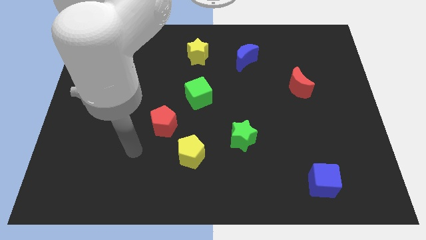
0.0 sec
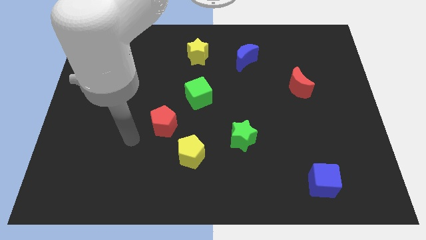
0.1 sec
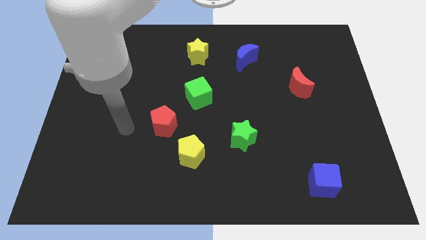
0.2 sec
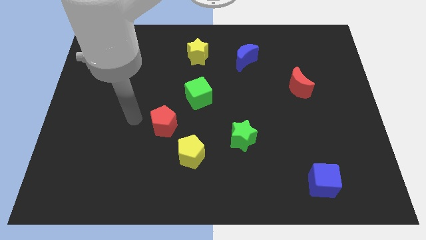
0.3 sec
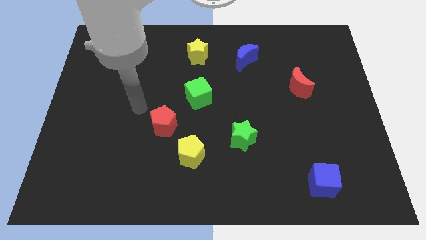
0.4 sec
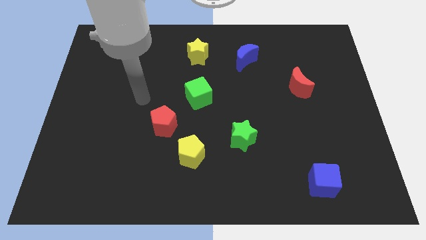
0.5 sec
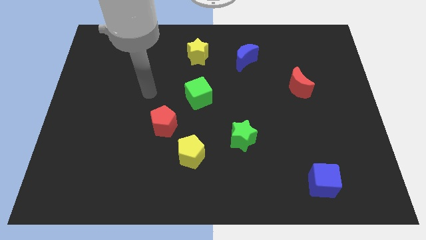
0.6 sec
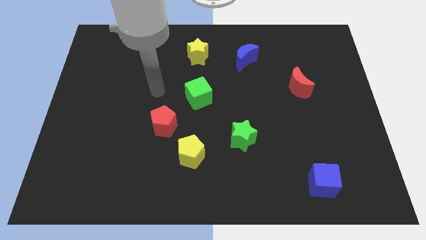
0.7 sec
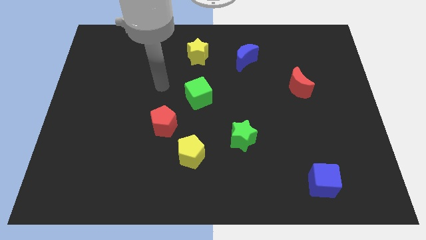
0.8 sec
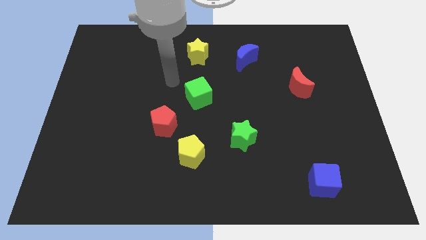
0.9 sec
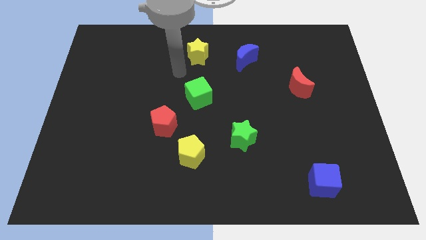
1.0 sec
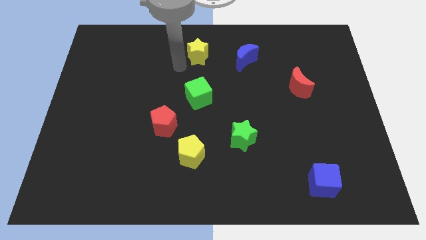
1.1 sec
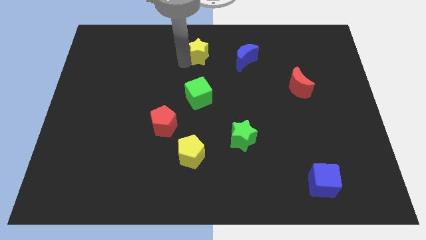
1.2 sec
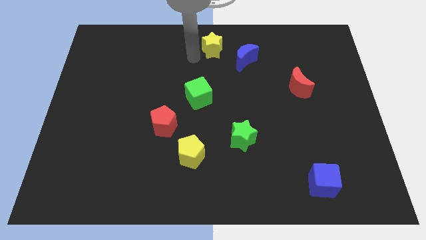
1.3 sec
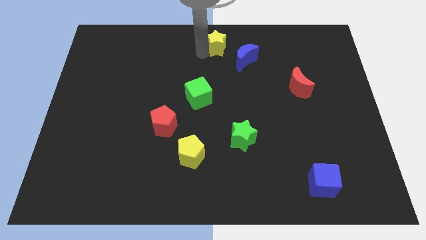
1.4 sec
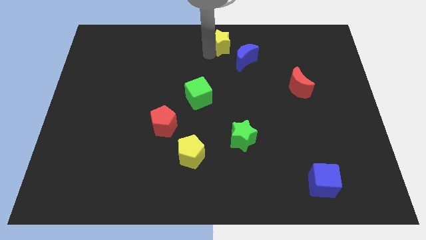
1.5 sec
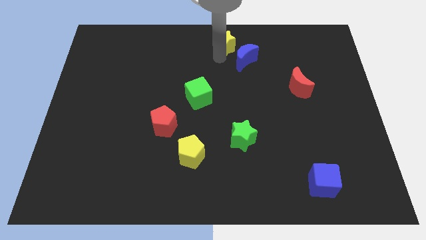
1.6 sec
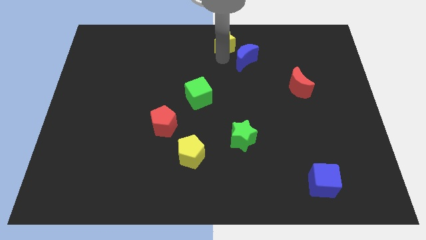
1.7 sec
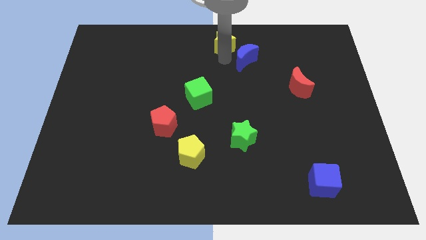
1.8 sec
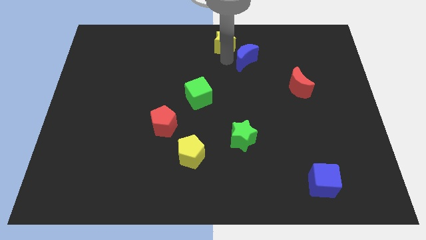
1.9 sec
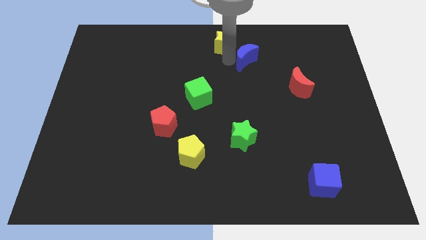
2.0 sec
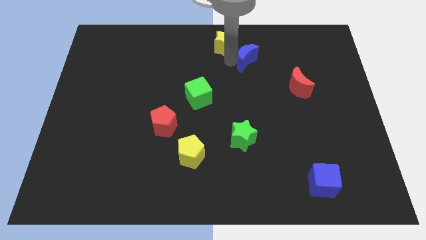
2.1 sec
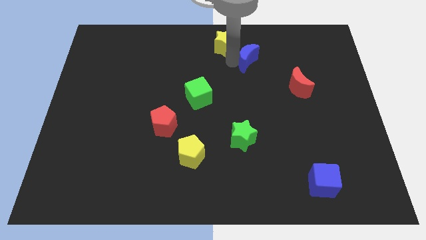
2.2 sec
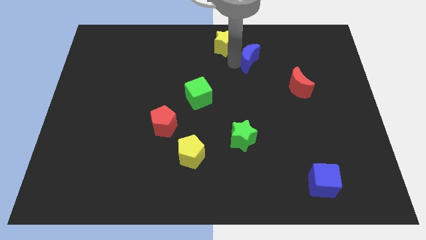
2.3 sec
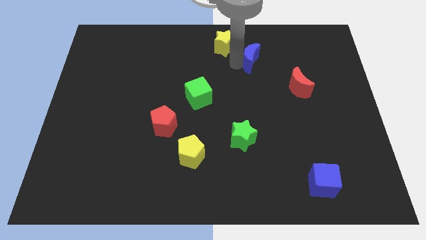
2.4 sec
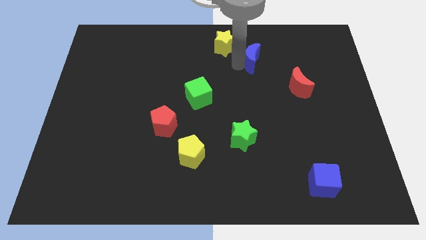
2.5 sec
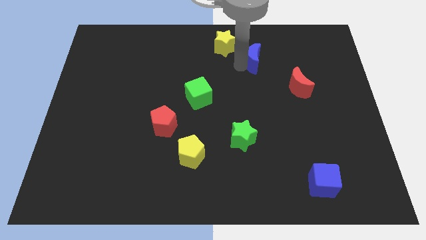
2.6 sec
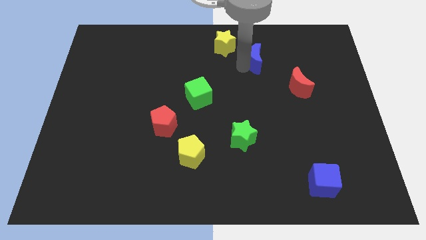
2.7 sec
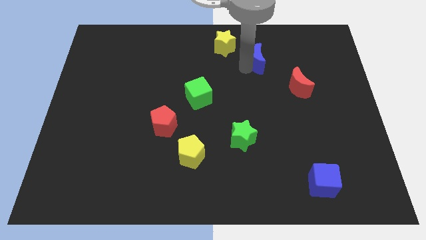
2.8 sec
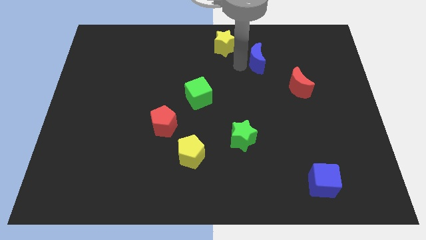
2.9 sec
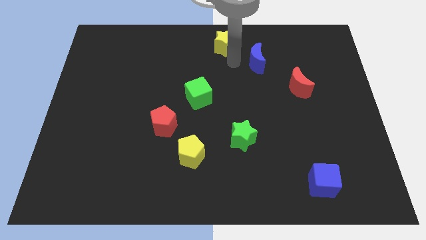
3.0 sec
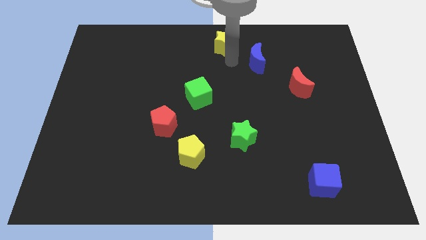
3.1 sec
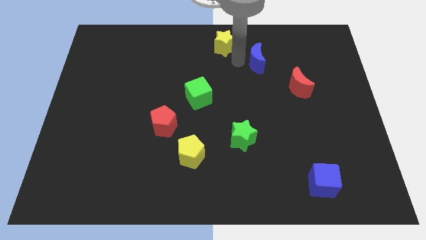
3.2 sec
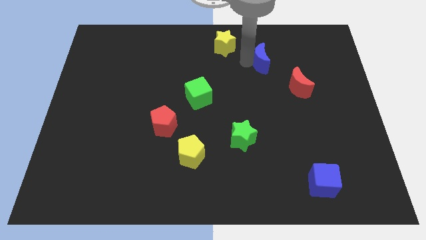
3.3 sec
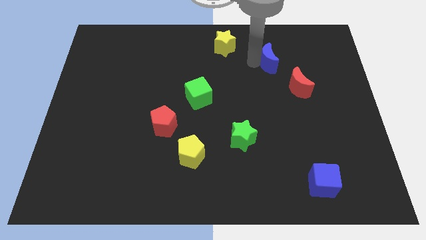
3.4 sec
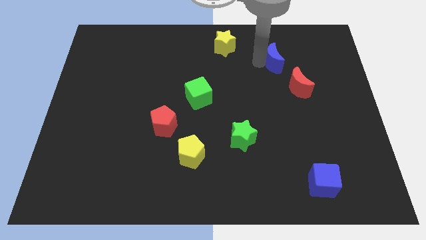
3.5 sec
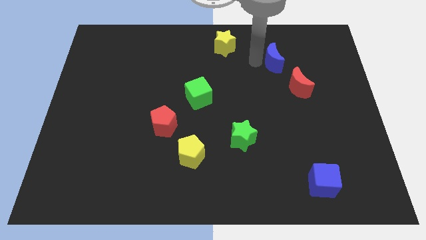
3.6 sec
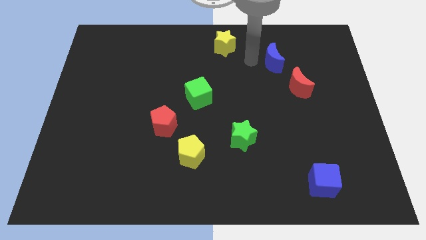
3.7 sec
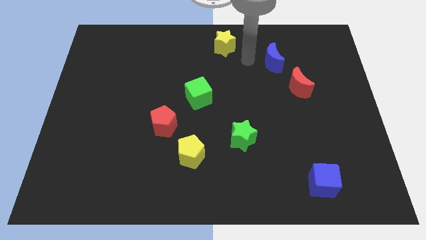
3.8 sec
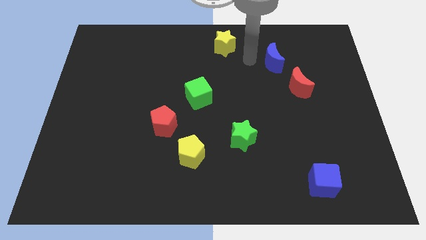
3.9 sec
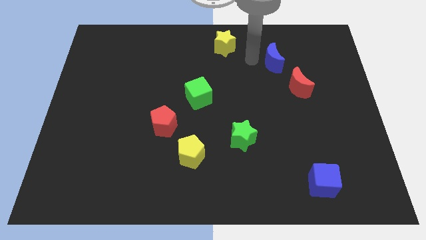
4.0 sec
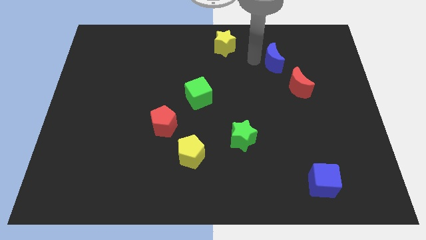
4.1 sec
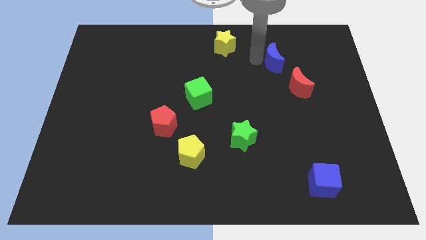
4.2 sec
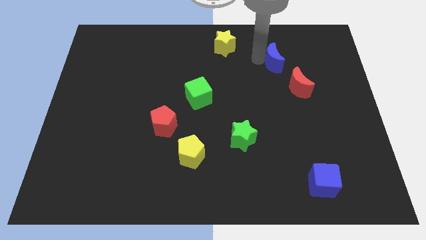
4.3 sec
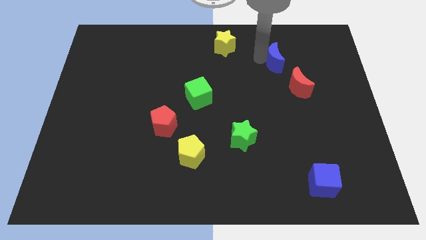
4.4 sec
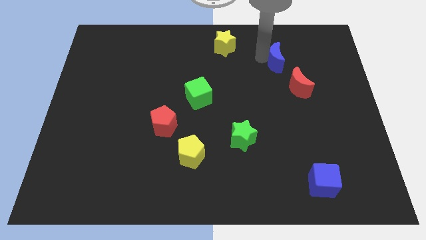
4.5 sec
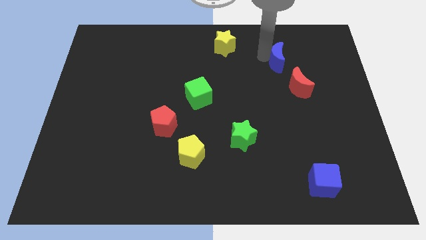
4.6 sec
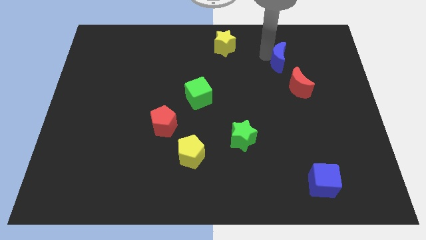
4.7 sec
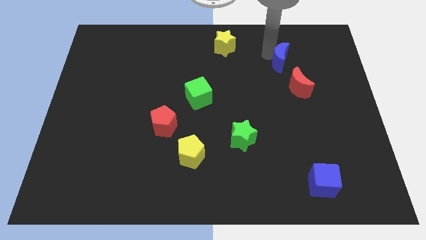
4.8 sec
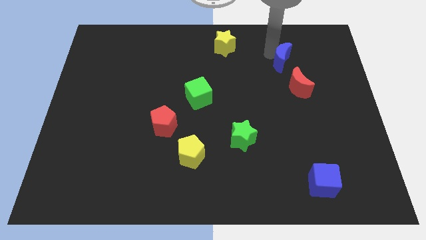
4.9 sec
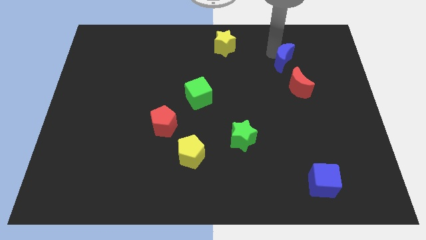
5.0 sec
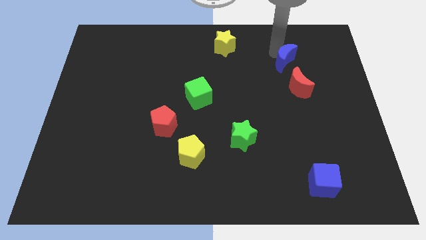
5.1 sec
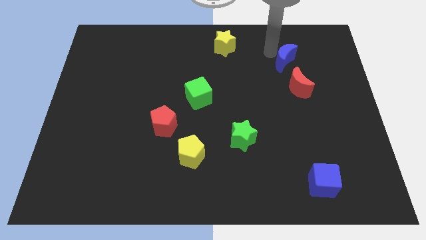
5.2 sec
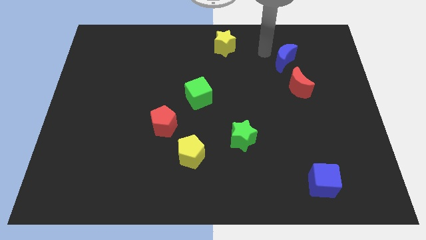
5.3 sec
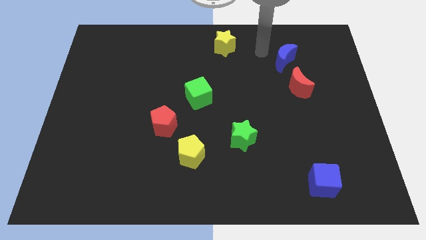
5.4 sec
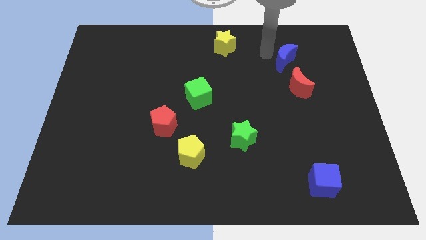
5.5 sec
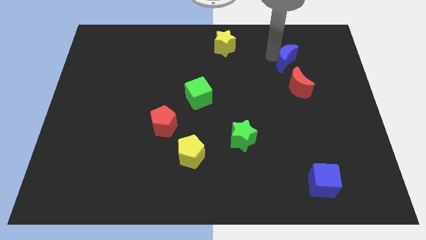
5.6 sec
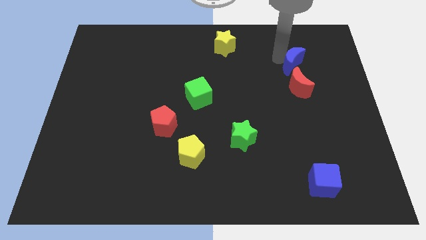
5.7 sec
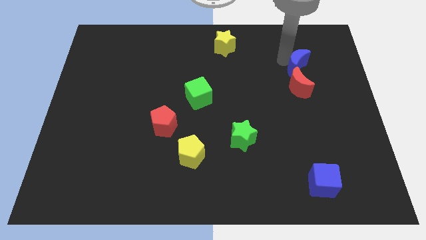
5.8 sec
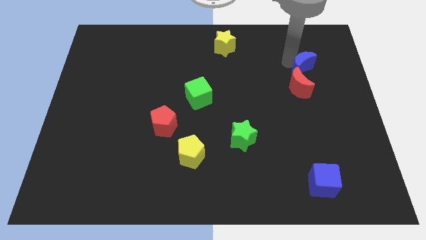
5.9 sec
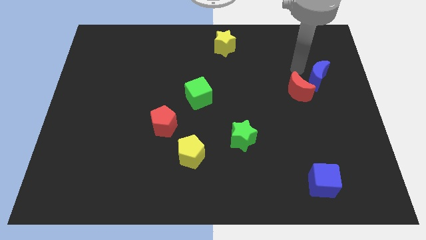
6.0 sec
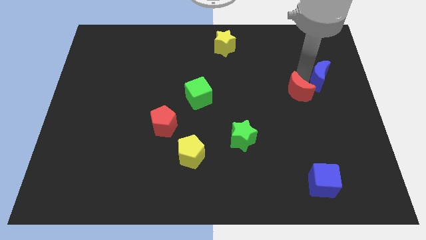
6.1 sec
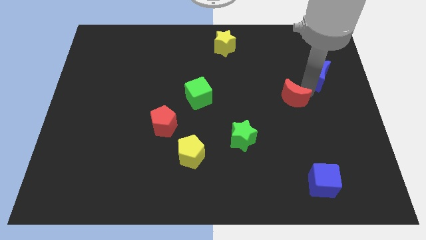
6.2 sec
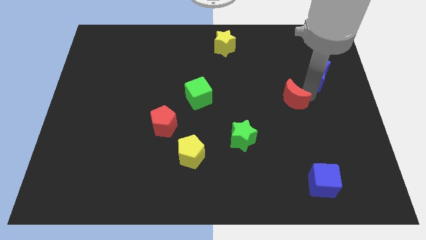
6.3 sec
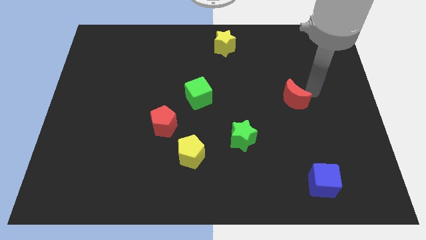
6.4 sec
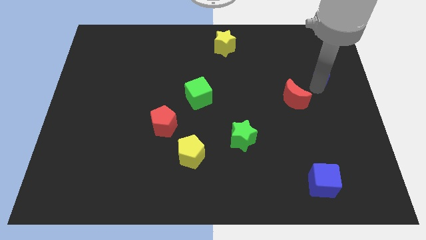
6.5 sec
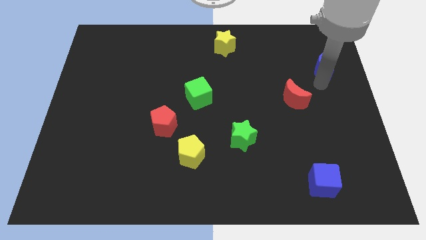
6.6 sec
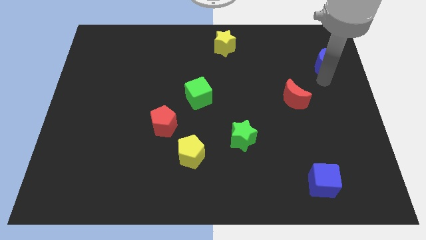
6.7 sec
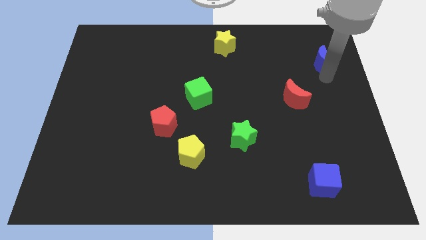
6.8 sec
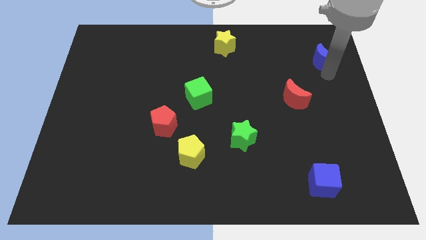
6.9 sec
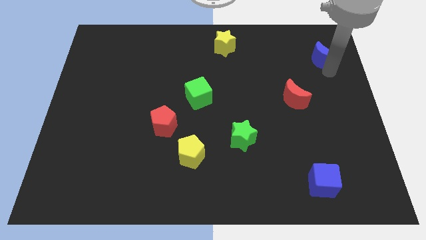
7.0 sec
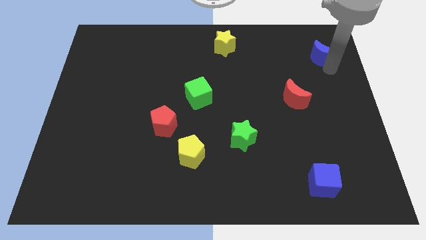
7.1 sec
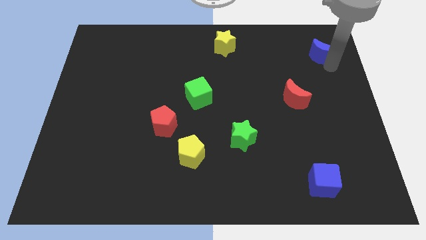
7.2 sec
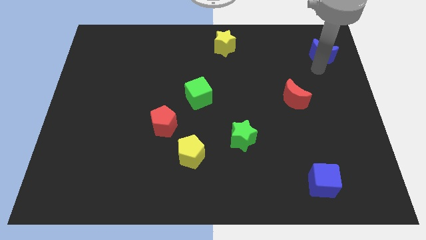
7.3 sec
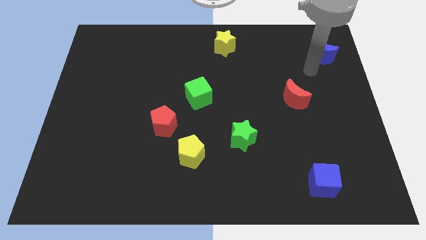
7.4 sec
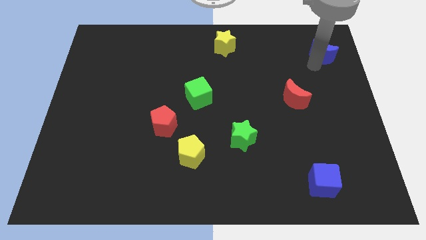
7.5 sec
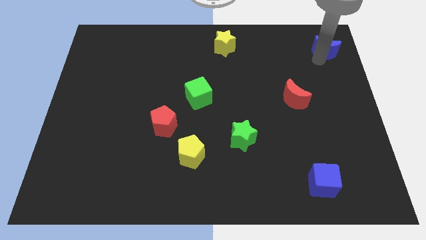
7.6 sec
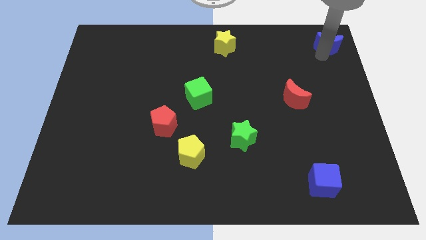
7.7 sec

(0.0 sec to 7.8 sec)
put the blue moon to the upper right corner
